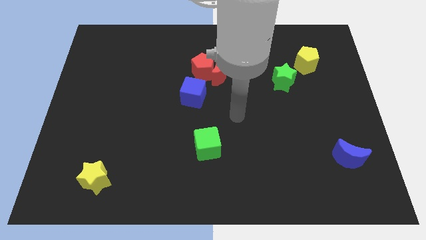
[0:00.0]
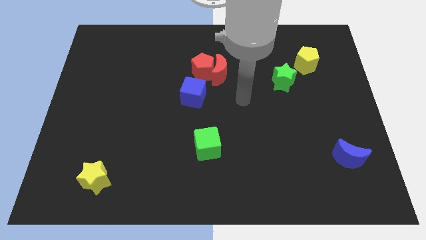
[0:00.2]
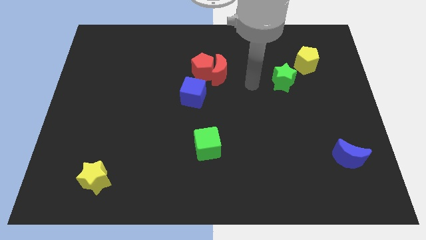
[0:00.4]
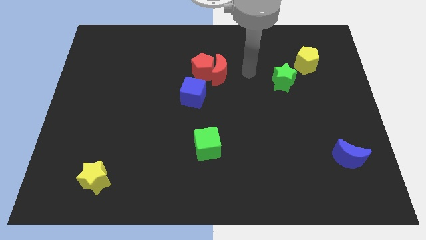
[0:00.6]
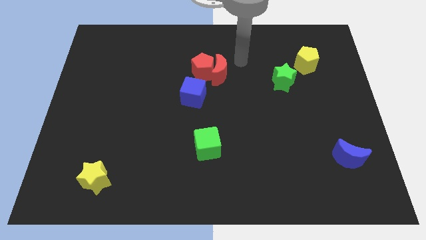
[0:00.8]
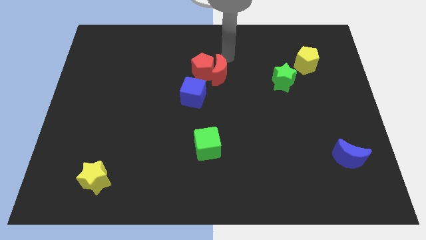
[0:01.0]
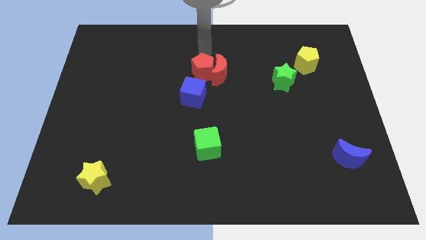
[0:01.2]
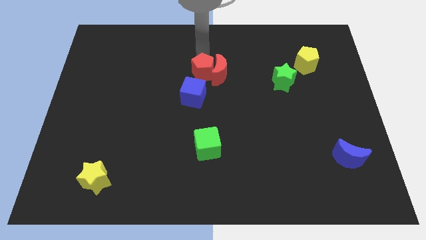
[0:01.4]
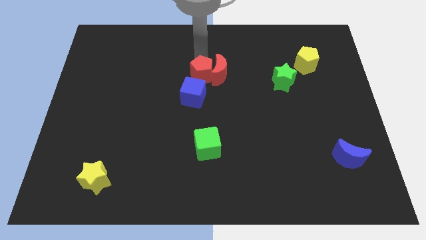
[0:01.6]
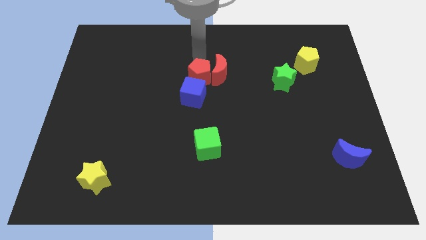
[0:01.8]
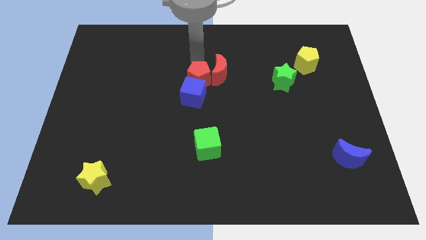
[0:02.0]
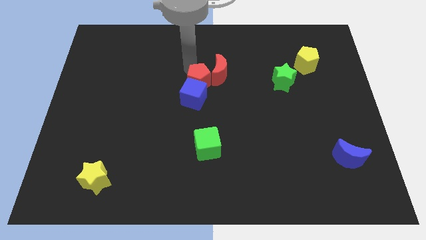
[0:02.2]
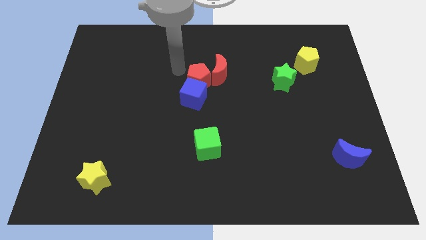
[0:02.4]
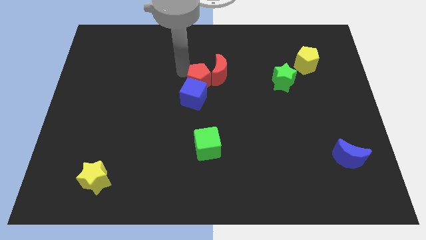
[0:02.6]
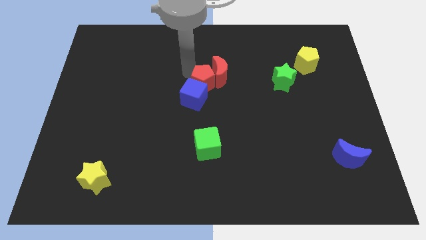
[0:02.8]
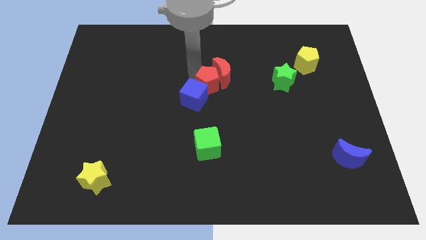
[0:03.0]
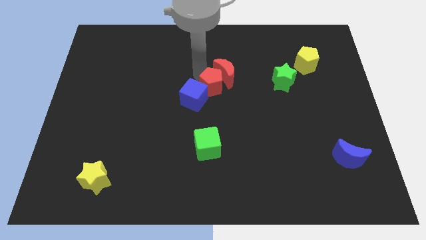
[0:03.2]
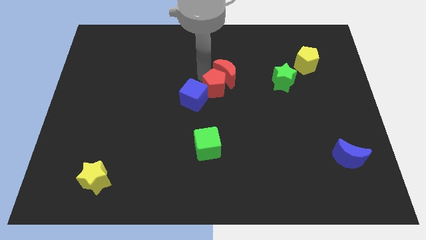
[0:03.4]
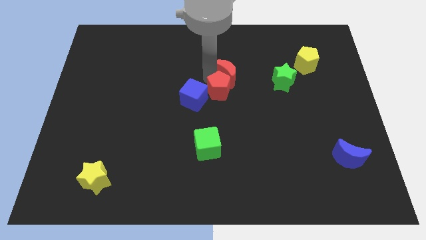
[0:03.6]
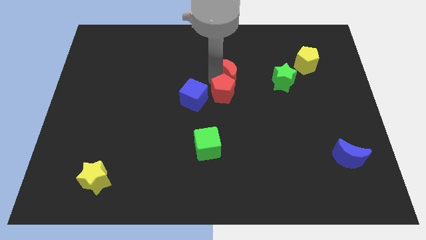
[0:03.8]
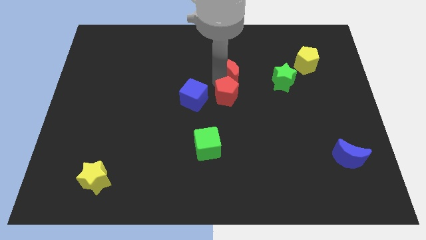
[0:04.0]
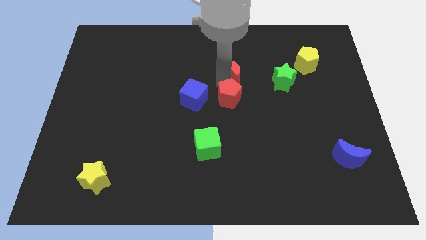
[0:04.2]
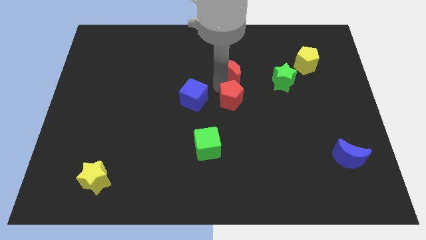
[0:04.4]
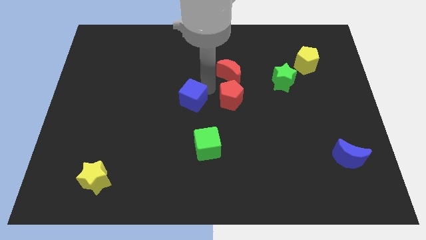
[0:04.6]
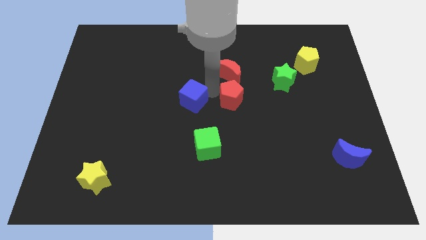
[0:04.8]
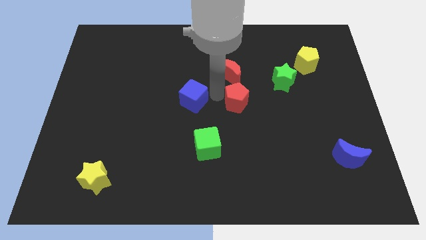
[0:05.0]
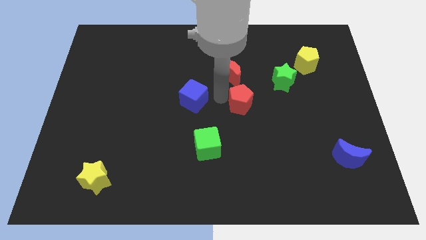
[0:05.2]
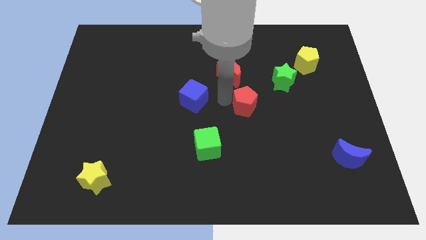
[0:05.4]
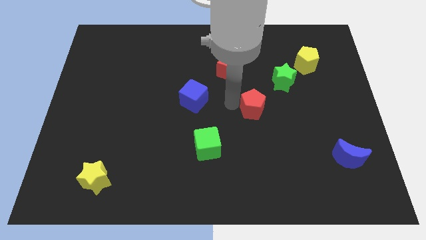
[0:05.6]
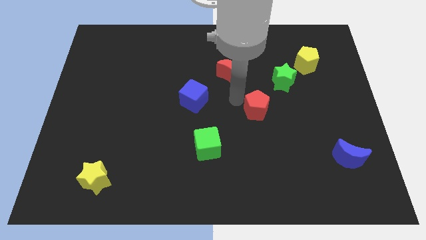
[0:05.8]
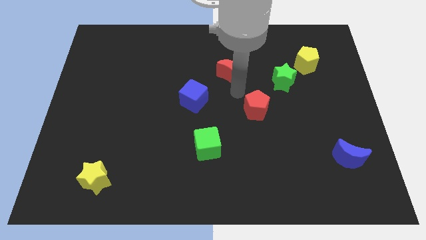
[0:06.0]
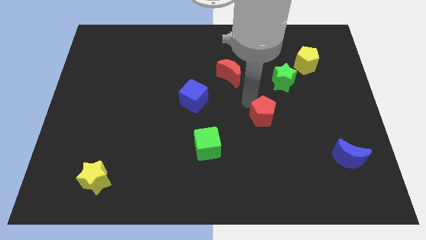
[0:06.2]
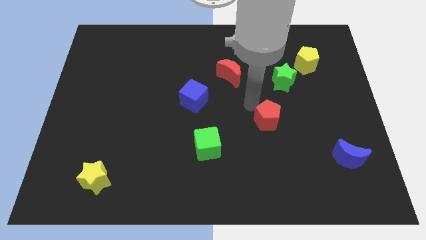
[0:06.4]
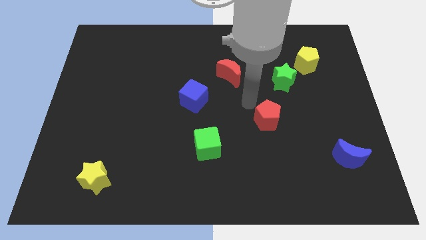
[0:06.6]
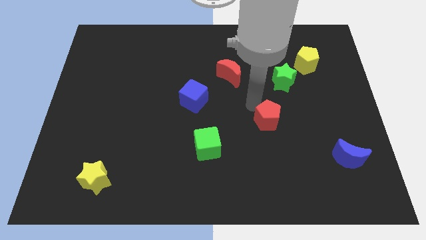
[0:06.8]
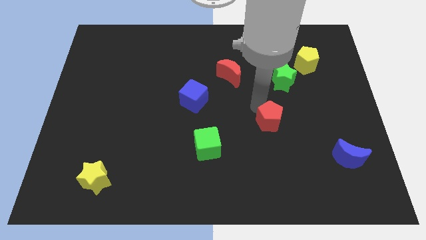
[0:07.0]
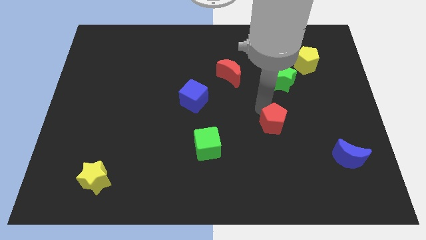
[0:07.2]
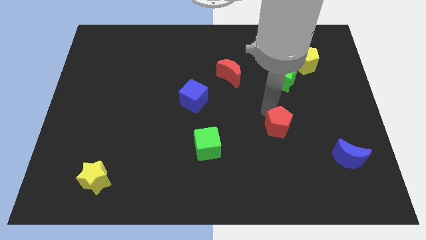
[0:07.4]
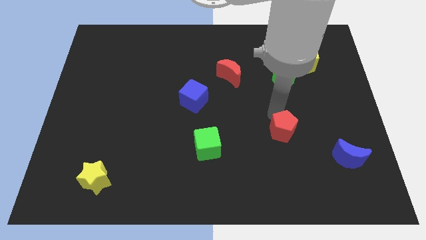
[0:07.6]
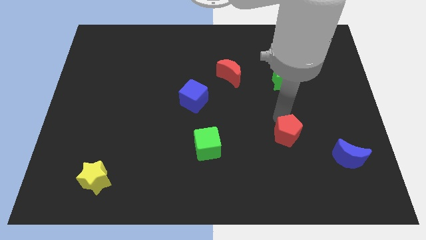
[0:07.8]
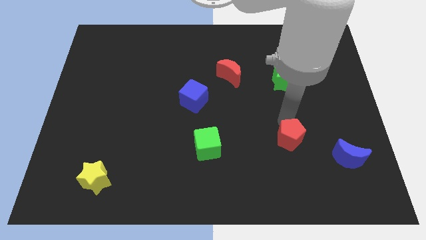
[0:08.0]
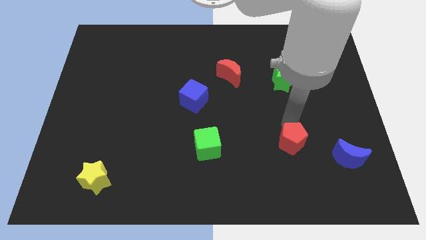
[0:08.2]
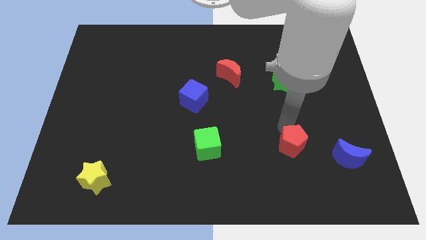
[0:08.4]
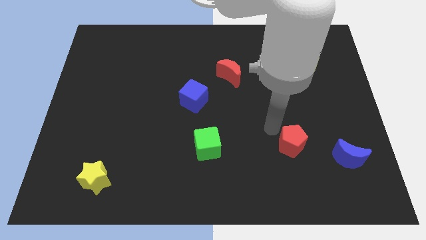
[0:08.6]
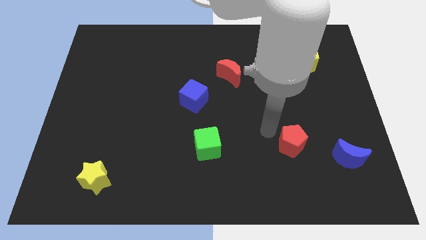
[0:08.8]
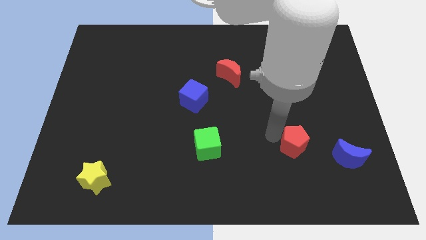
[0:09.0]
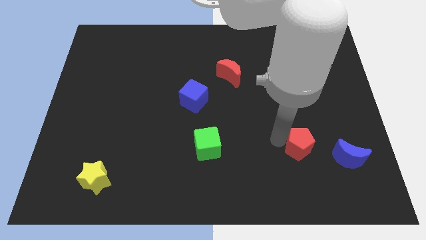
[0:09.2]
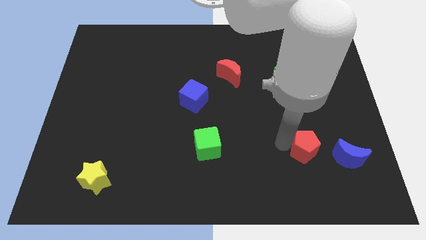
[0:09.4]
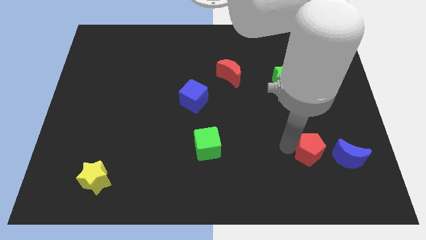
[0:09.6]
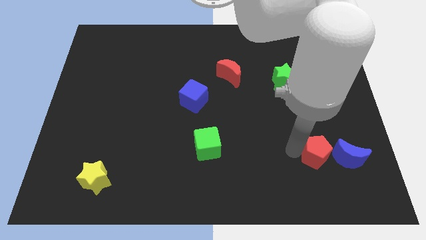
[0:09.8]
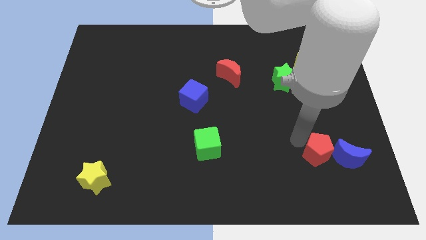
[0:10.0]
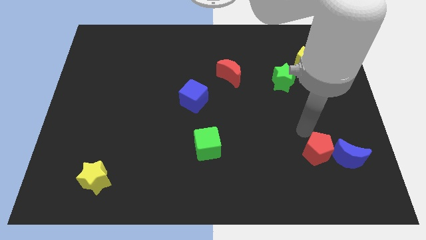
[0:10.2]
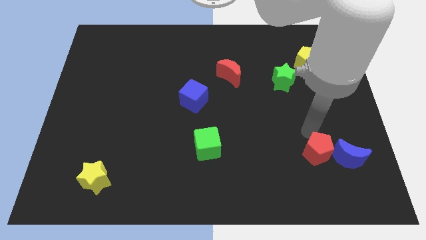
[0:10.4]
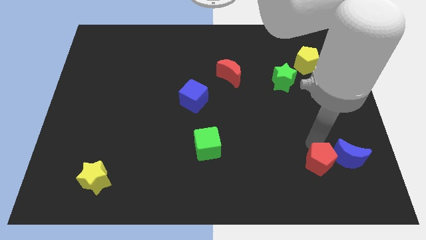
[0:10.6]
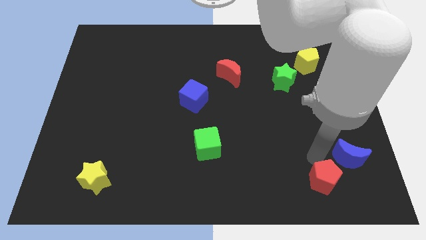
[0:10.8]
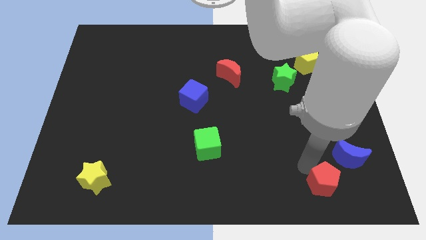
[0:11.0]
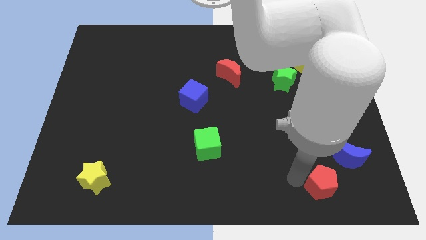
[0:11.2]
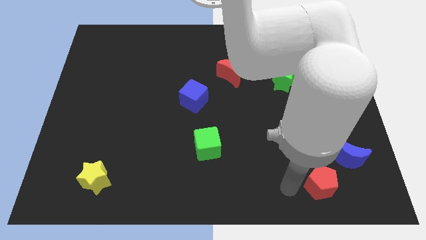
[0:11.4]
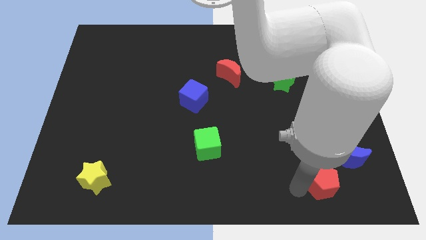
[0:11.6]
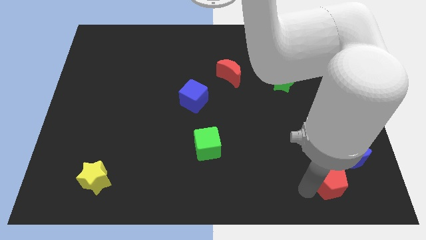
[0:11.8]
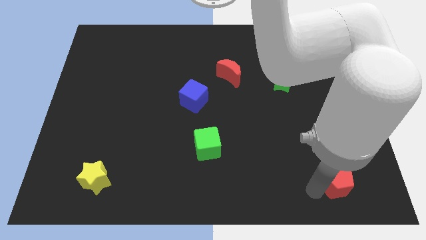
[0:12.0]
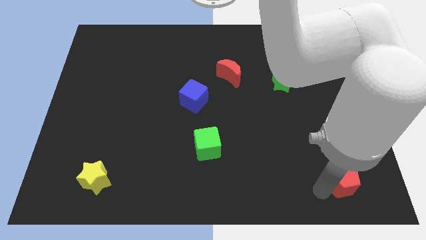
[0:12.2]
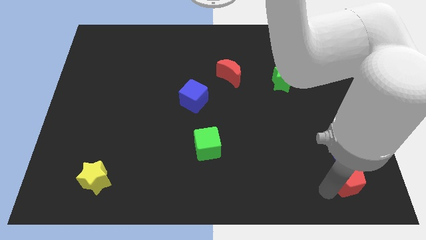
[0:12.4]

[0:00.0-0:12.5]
put the red pentagon to the lower right corner
